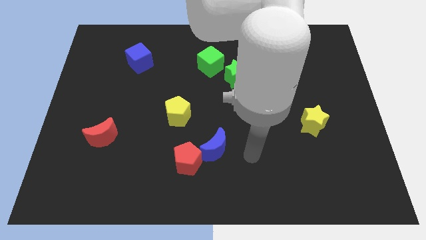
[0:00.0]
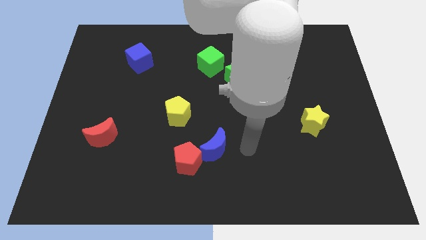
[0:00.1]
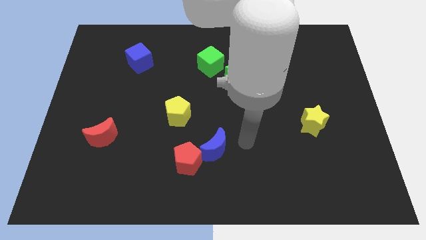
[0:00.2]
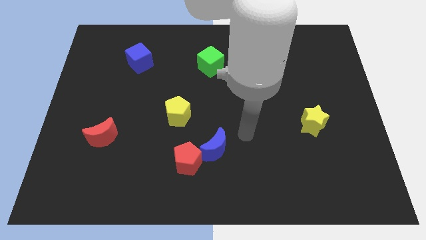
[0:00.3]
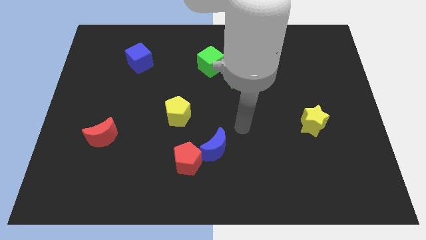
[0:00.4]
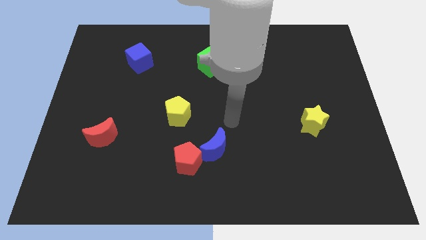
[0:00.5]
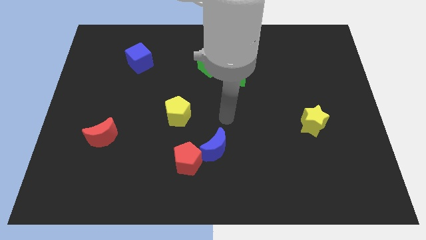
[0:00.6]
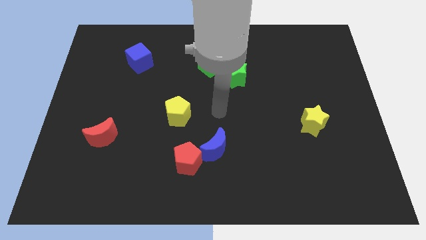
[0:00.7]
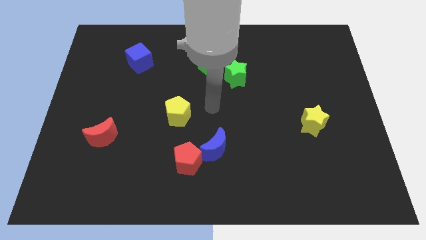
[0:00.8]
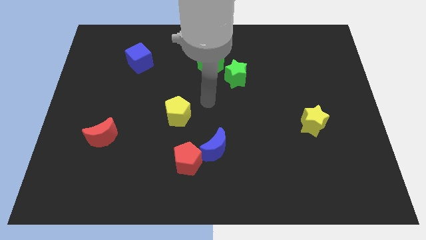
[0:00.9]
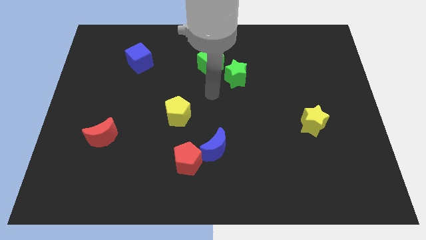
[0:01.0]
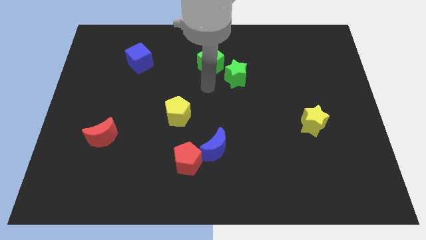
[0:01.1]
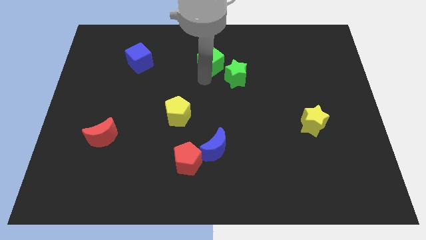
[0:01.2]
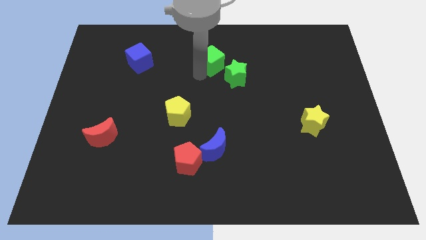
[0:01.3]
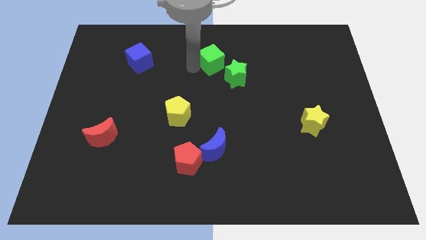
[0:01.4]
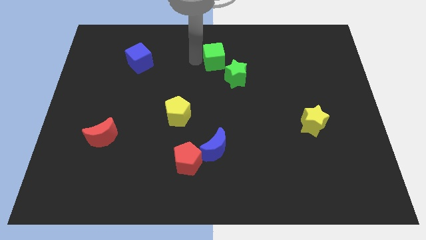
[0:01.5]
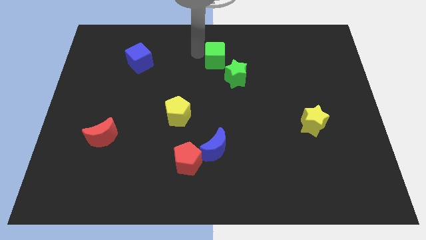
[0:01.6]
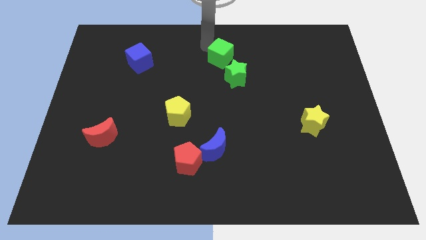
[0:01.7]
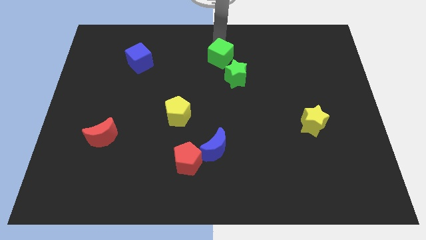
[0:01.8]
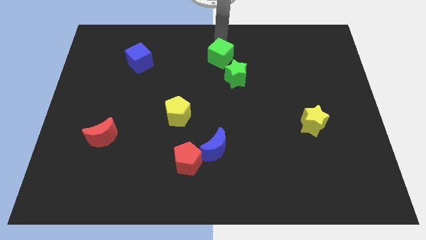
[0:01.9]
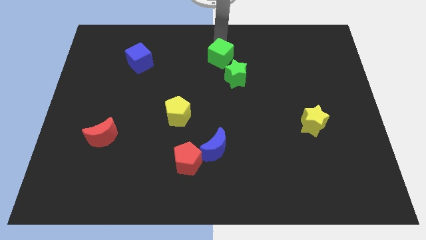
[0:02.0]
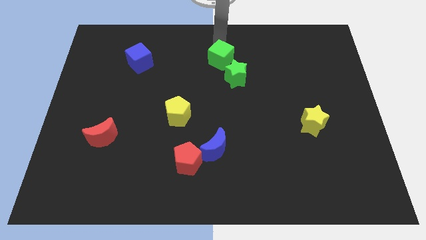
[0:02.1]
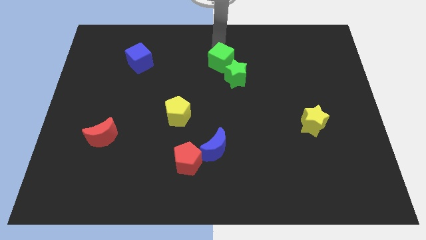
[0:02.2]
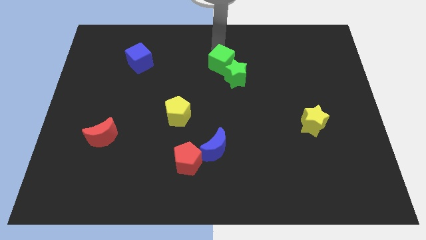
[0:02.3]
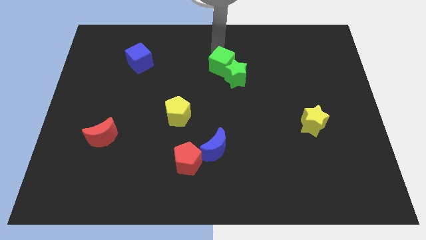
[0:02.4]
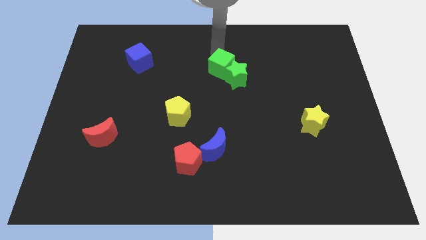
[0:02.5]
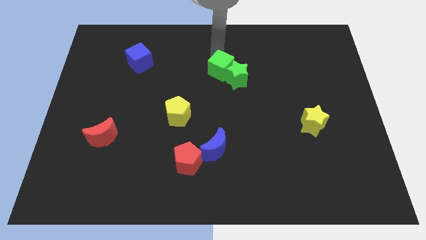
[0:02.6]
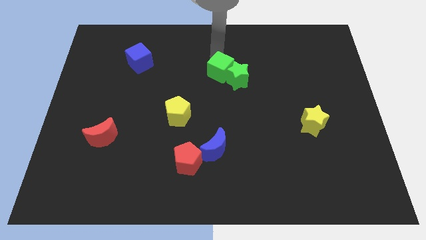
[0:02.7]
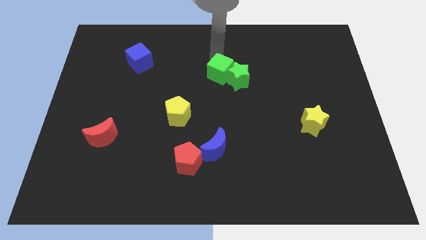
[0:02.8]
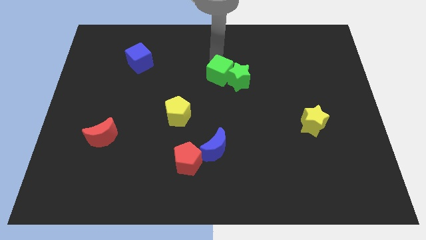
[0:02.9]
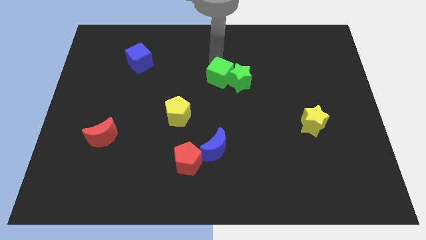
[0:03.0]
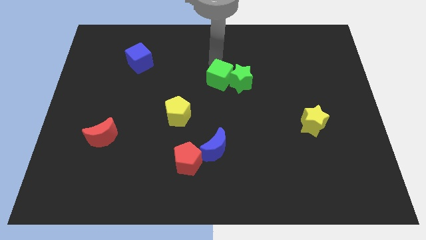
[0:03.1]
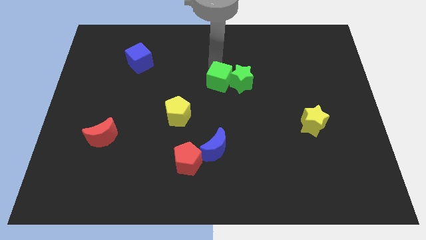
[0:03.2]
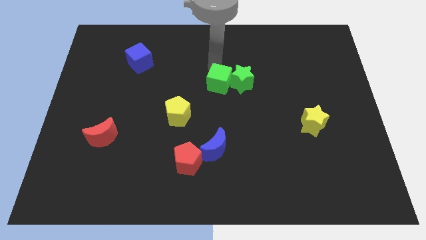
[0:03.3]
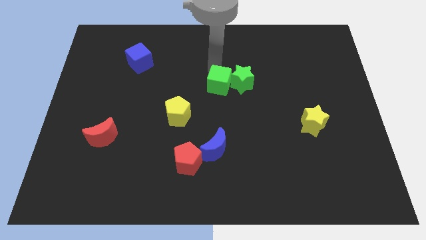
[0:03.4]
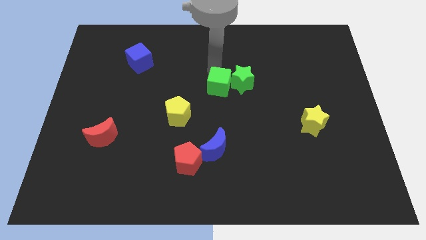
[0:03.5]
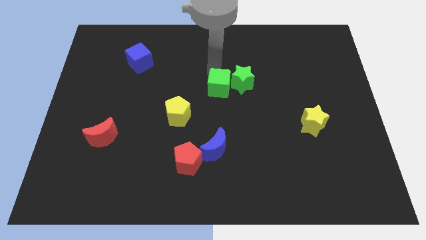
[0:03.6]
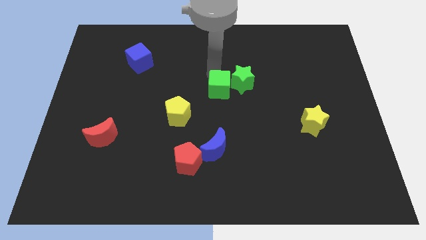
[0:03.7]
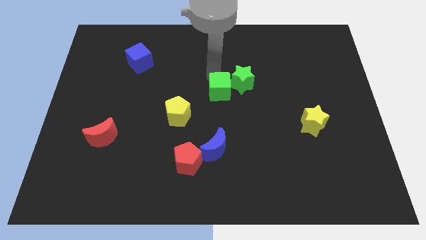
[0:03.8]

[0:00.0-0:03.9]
slide the green cube down and to the right diagonally a little

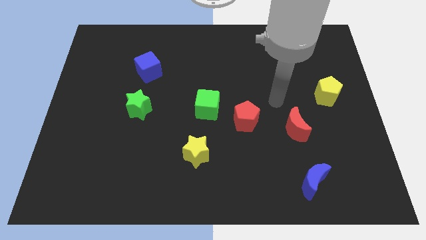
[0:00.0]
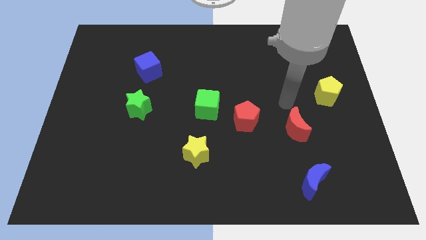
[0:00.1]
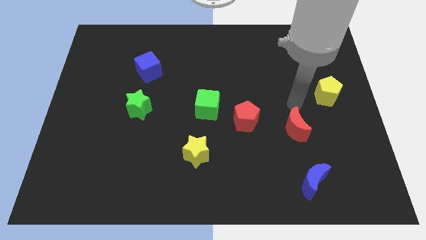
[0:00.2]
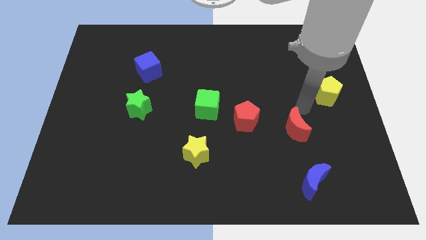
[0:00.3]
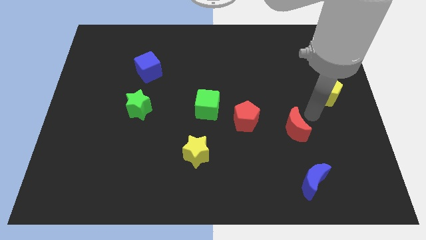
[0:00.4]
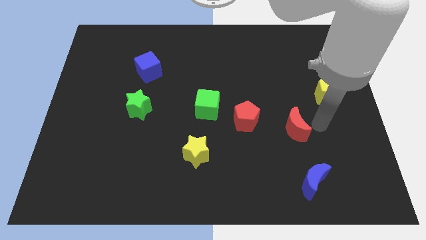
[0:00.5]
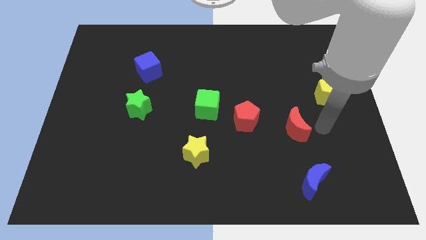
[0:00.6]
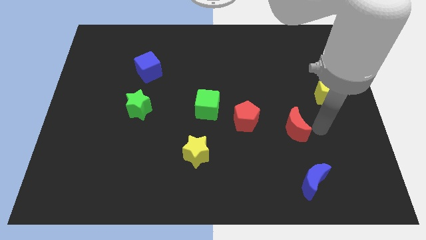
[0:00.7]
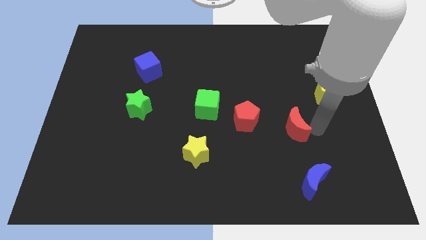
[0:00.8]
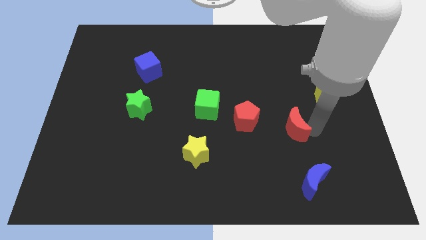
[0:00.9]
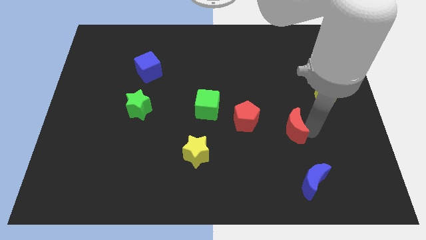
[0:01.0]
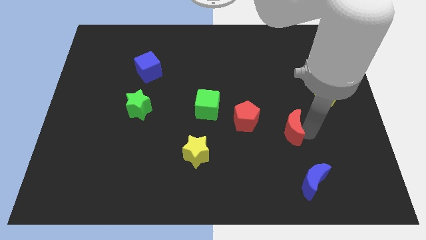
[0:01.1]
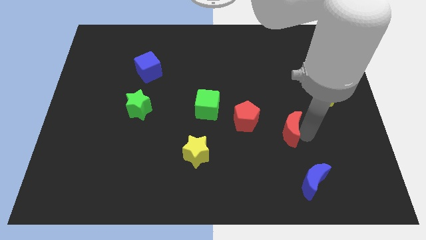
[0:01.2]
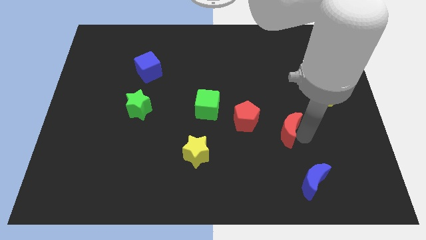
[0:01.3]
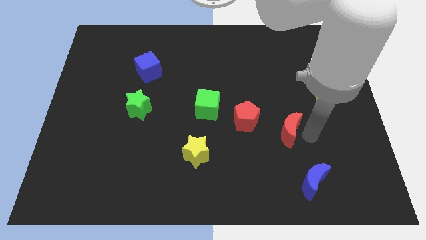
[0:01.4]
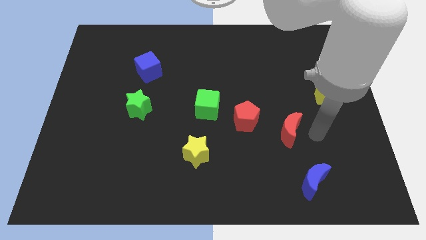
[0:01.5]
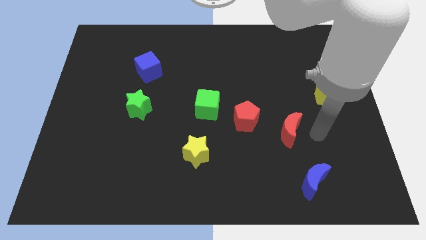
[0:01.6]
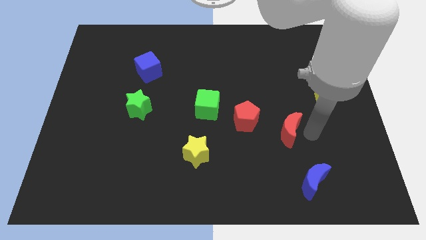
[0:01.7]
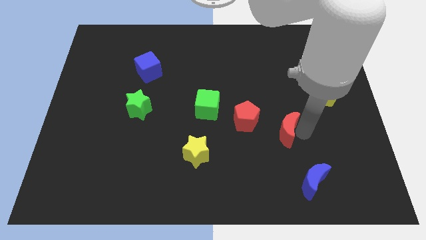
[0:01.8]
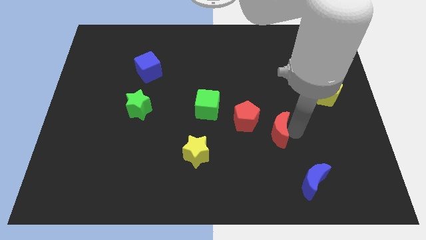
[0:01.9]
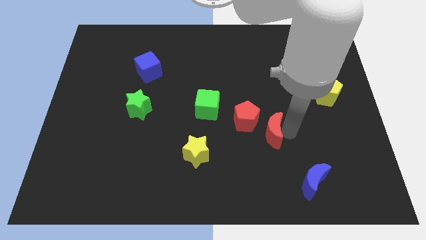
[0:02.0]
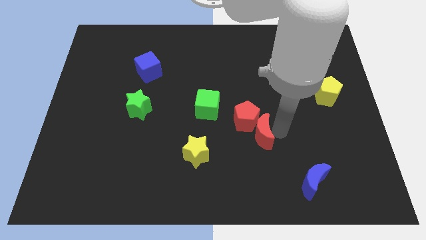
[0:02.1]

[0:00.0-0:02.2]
push the red moon a little left

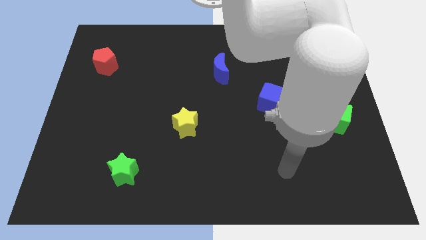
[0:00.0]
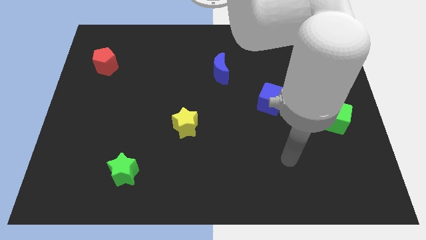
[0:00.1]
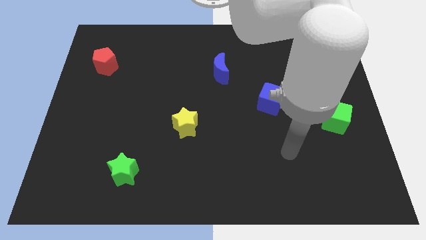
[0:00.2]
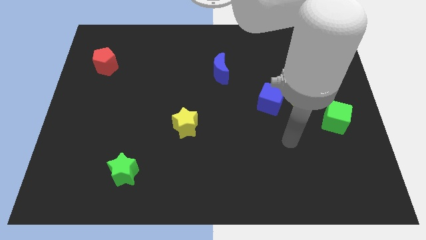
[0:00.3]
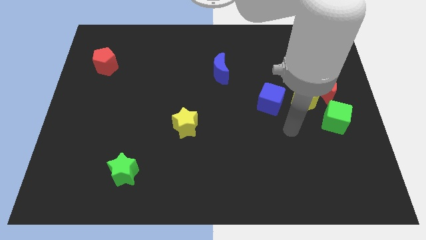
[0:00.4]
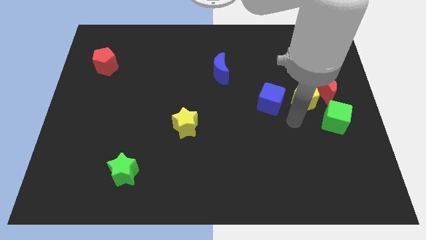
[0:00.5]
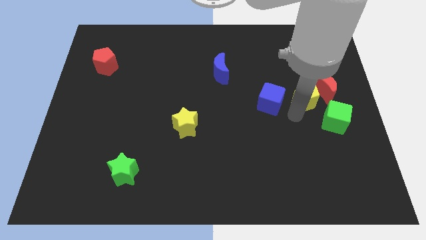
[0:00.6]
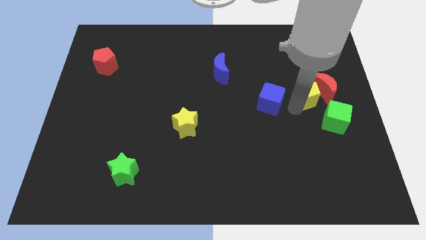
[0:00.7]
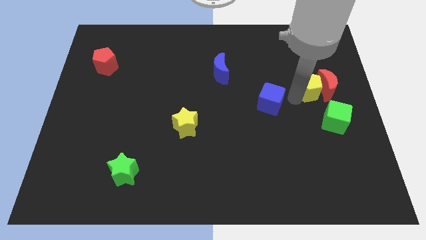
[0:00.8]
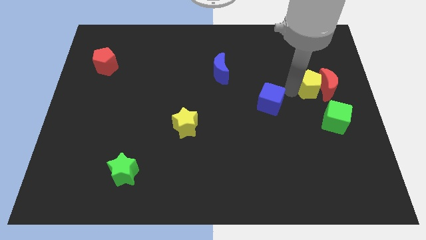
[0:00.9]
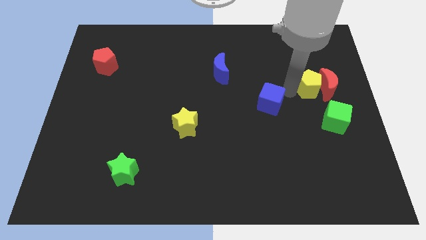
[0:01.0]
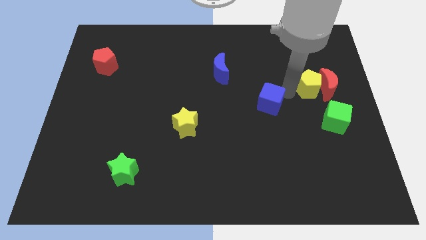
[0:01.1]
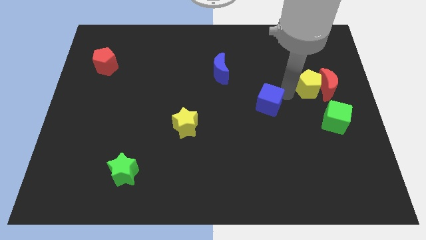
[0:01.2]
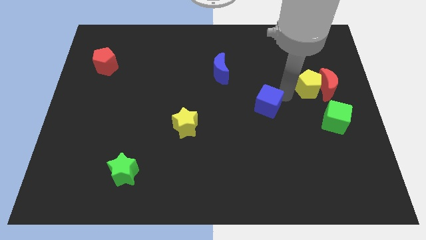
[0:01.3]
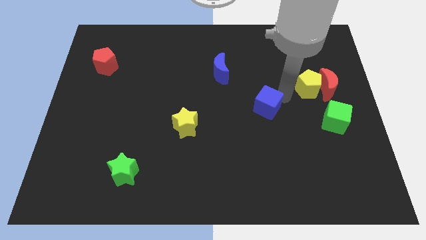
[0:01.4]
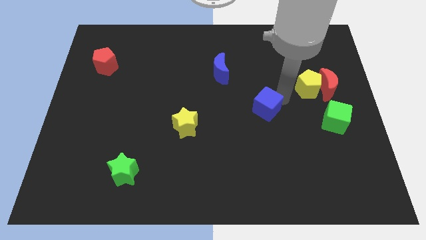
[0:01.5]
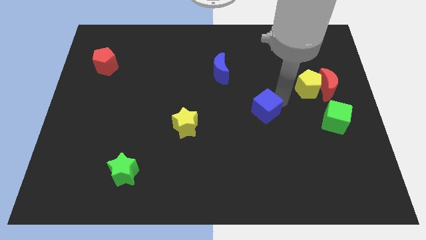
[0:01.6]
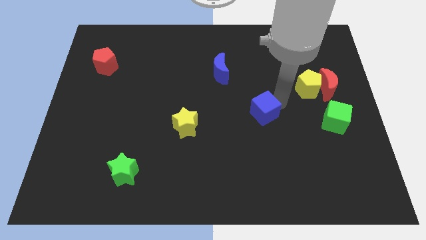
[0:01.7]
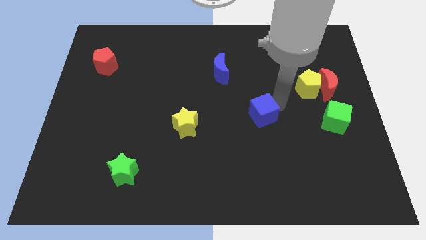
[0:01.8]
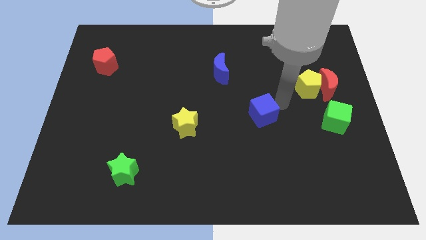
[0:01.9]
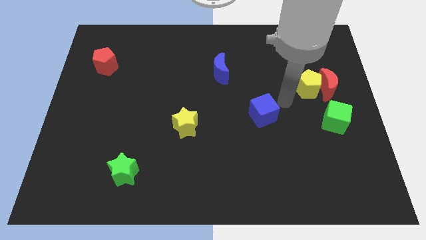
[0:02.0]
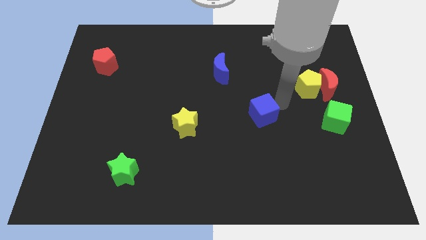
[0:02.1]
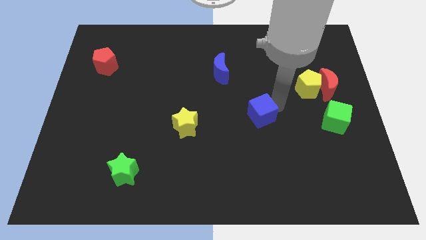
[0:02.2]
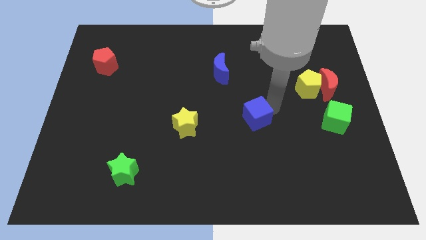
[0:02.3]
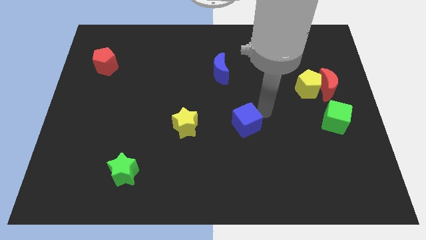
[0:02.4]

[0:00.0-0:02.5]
slide the blue cube somewhat down and to the left diagonally

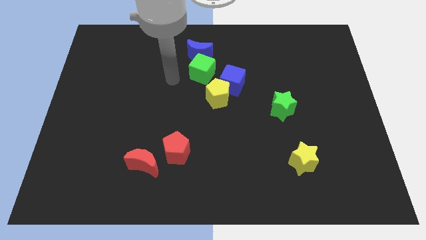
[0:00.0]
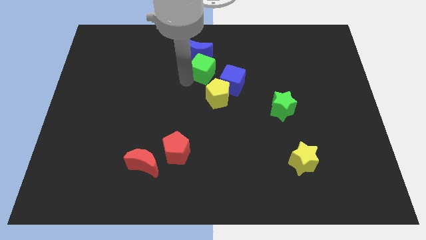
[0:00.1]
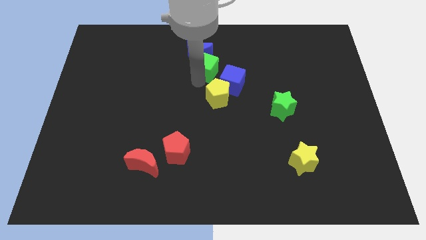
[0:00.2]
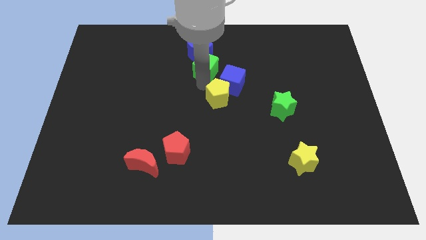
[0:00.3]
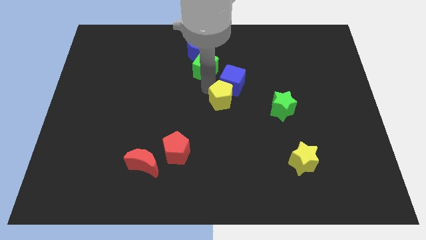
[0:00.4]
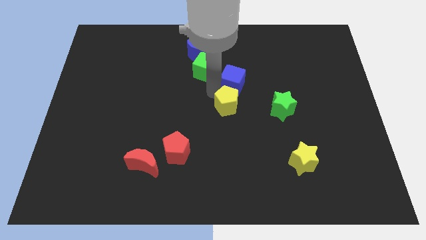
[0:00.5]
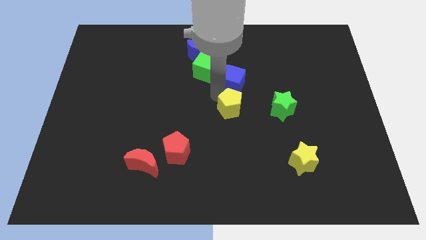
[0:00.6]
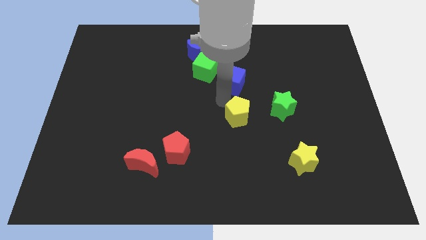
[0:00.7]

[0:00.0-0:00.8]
slide the yellow pentagon downwards and right diagonally somewhat
